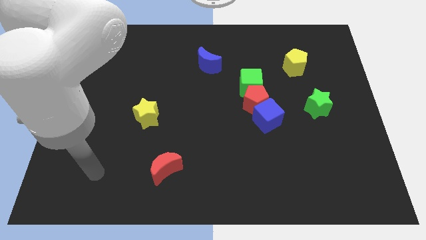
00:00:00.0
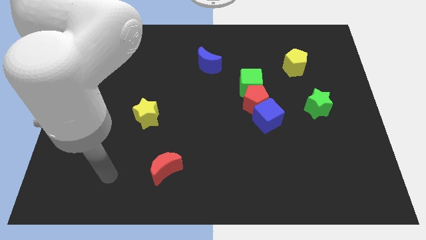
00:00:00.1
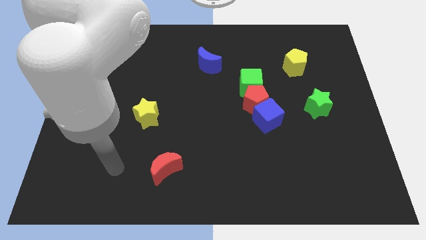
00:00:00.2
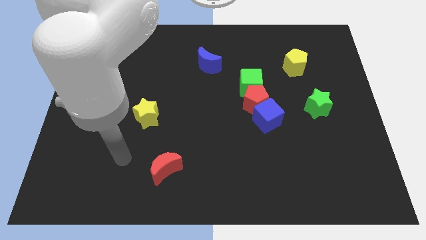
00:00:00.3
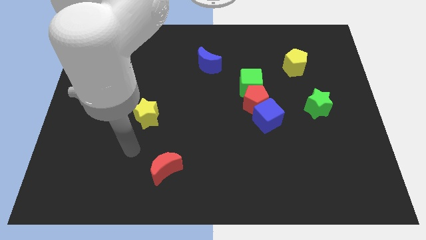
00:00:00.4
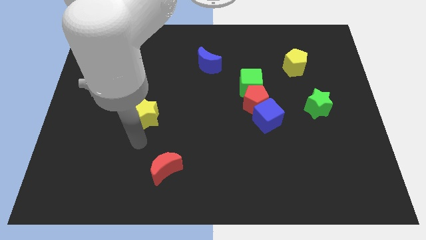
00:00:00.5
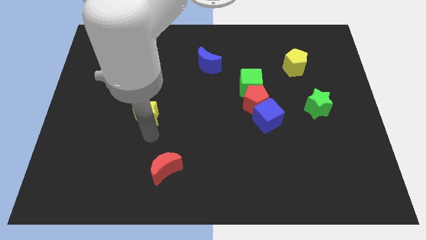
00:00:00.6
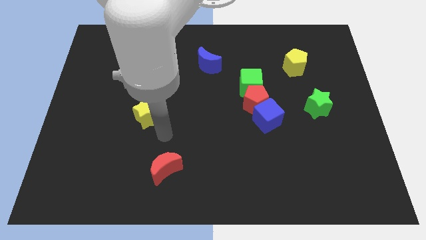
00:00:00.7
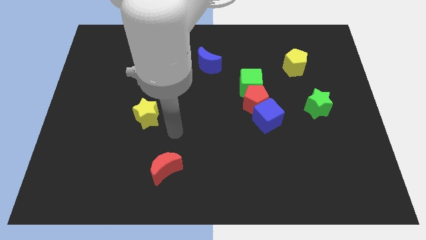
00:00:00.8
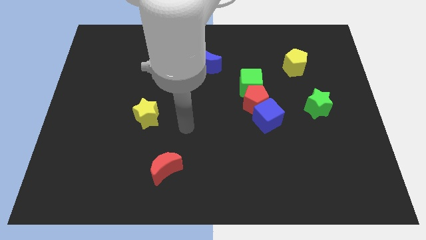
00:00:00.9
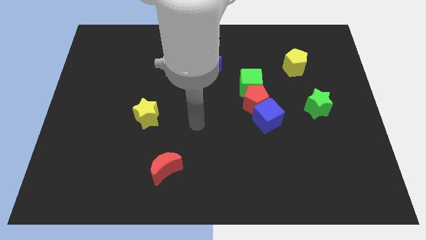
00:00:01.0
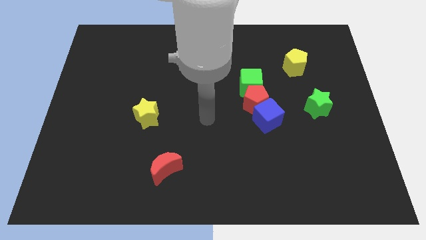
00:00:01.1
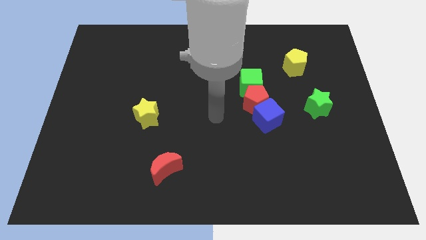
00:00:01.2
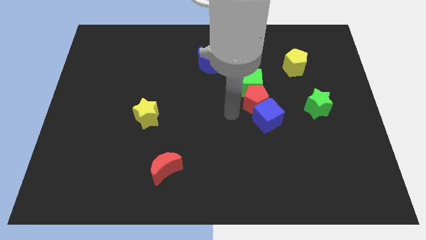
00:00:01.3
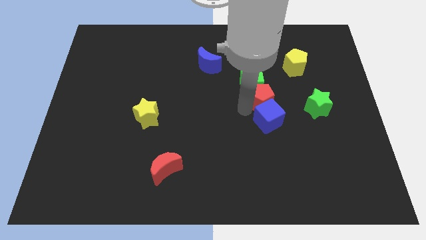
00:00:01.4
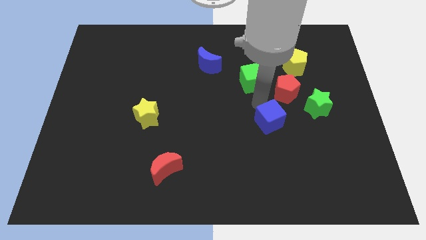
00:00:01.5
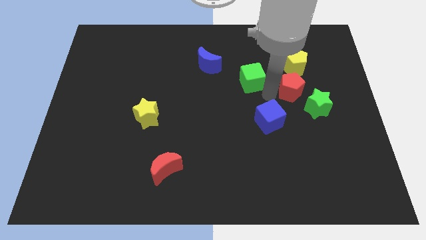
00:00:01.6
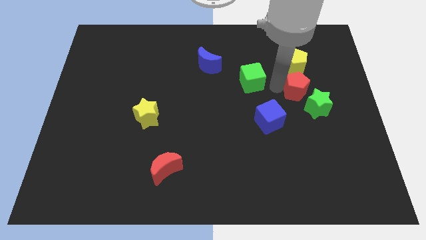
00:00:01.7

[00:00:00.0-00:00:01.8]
pull the green cube apart from the red pentagon

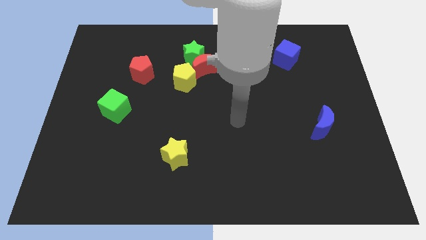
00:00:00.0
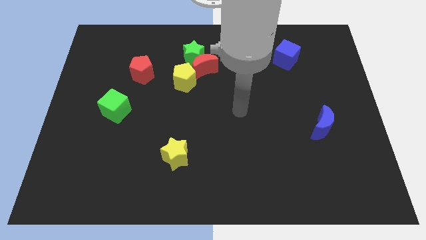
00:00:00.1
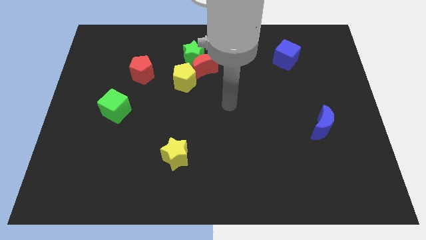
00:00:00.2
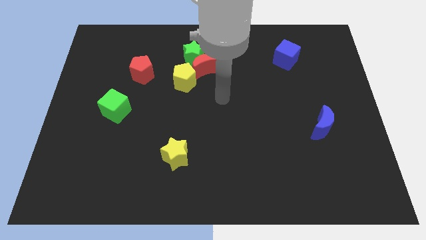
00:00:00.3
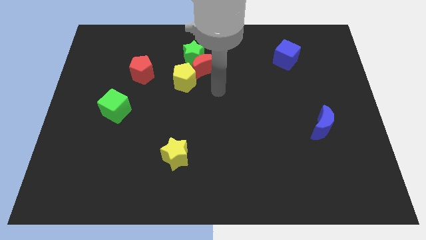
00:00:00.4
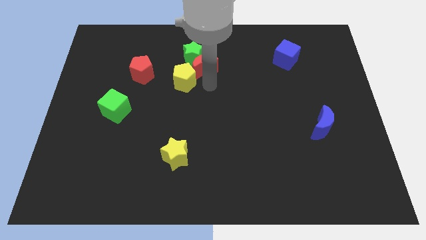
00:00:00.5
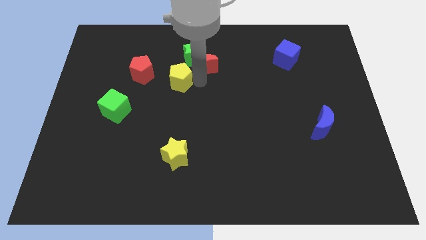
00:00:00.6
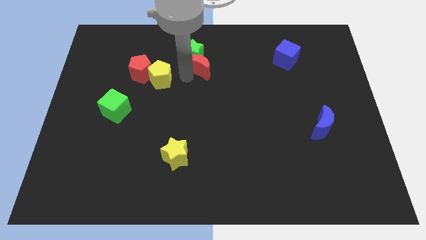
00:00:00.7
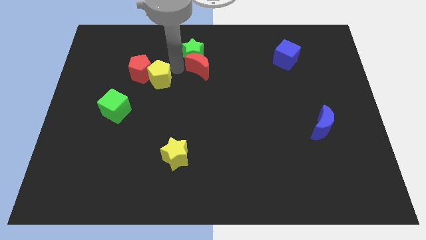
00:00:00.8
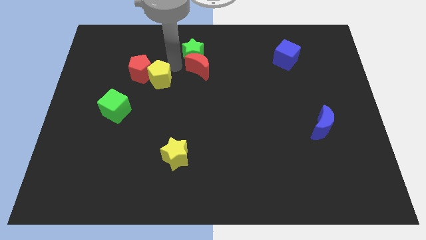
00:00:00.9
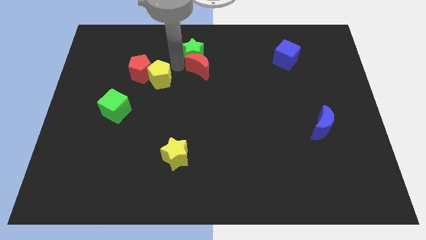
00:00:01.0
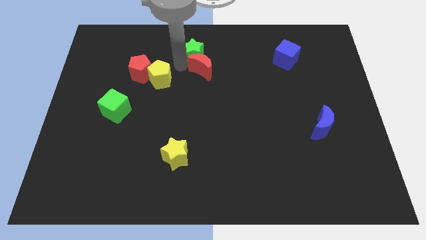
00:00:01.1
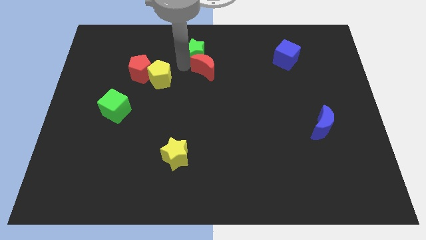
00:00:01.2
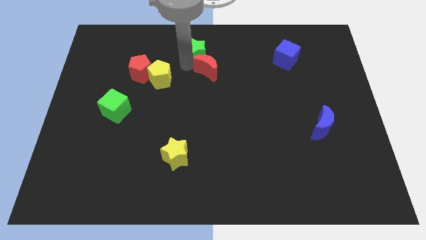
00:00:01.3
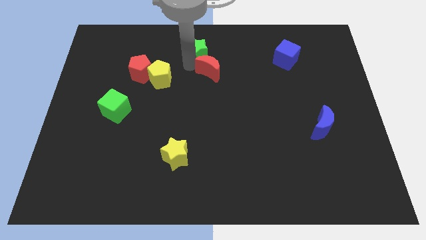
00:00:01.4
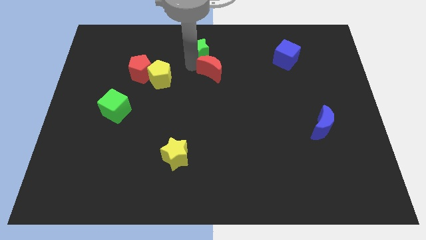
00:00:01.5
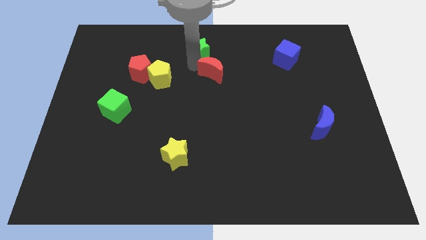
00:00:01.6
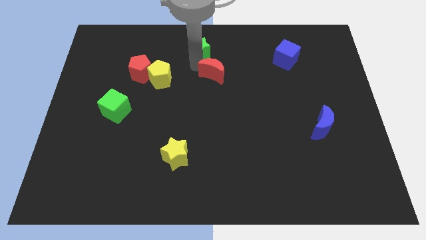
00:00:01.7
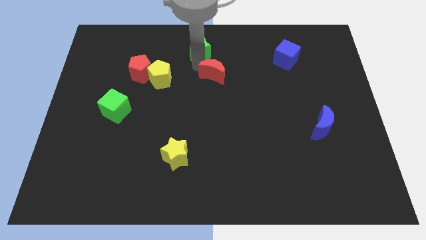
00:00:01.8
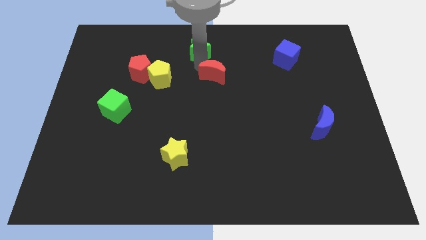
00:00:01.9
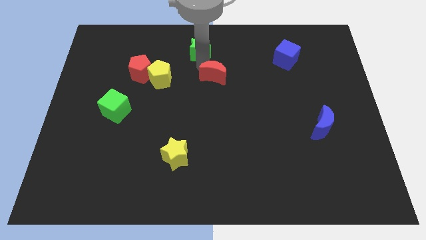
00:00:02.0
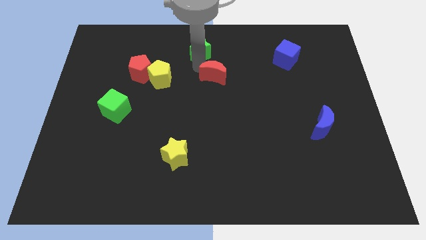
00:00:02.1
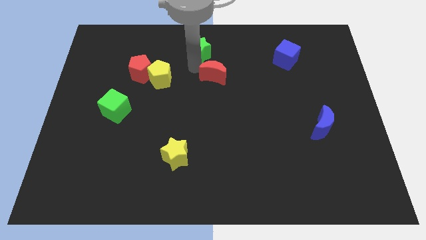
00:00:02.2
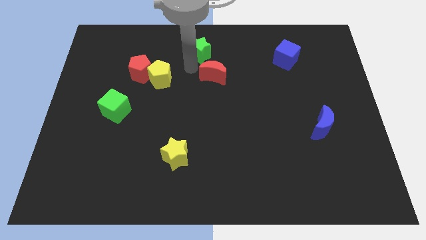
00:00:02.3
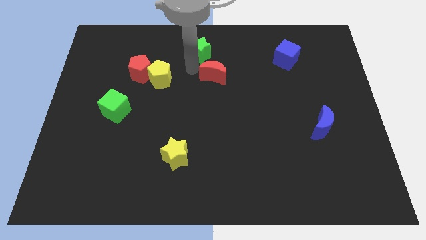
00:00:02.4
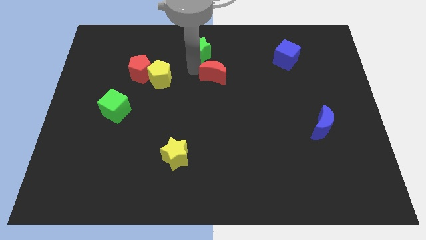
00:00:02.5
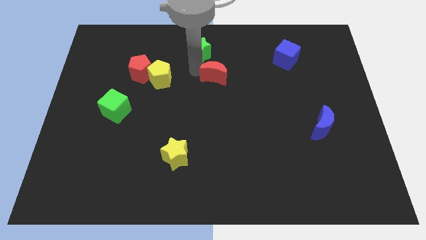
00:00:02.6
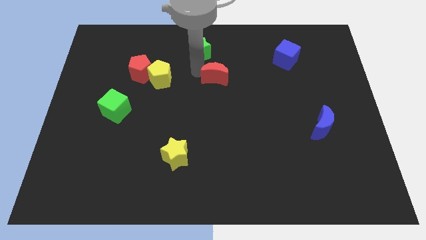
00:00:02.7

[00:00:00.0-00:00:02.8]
move the red moon away from the green star and yellow pentagon

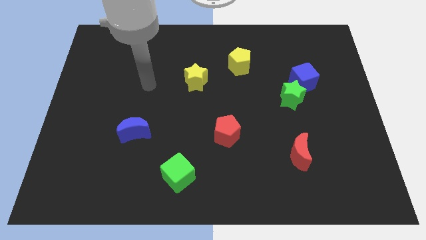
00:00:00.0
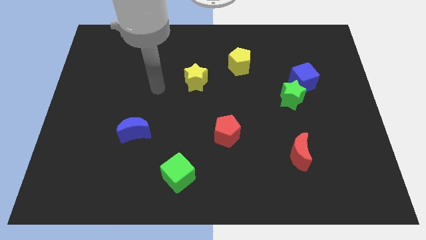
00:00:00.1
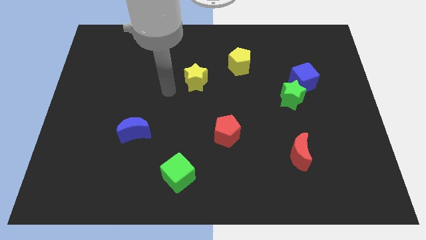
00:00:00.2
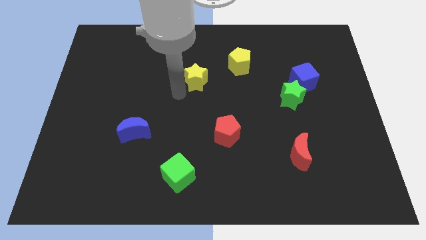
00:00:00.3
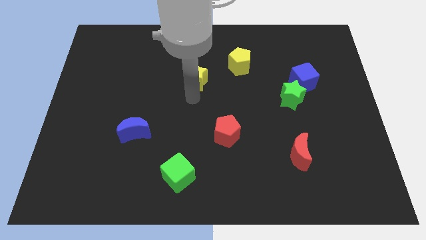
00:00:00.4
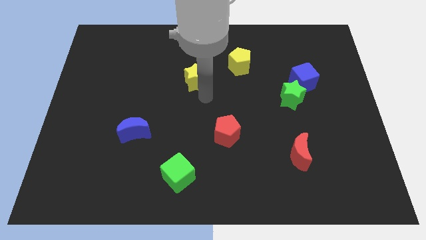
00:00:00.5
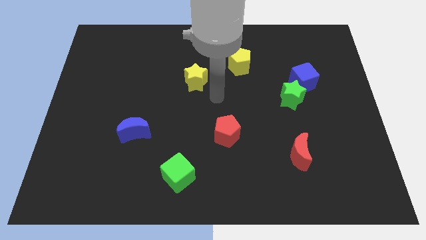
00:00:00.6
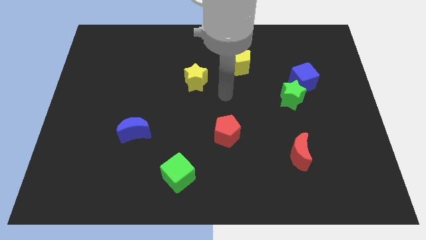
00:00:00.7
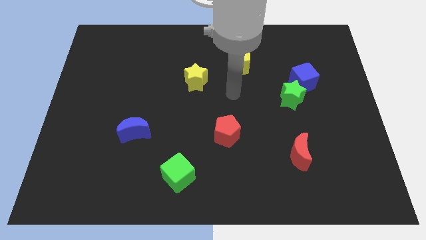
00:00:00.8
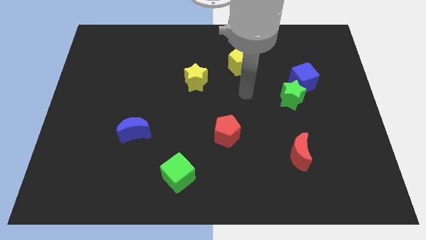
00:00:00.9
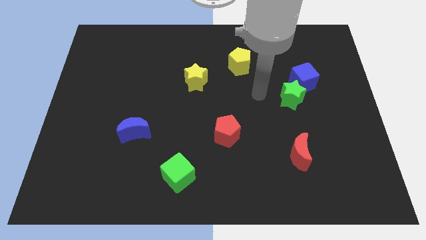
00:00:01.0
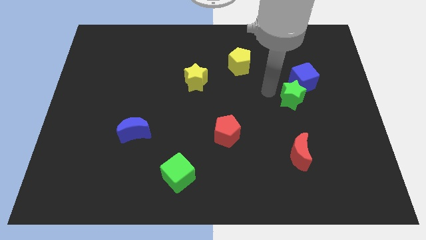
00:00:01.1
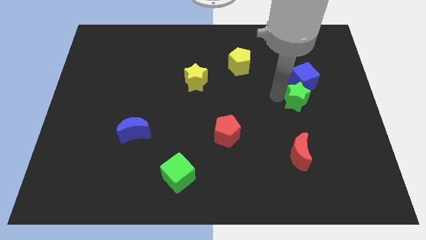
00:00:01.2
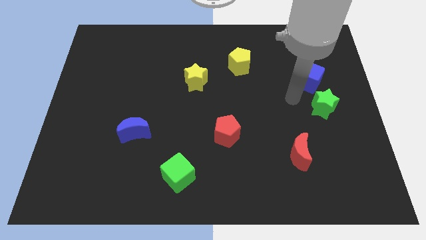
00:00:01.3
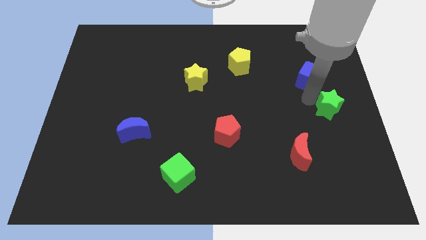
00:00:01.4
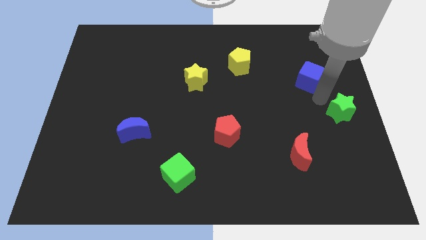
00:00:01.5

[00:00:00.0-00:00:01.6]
pull the blue cube apart from the green star

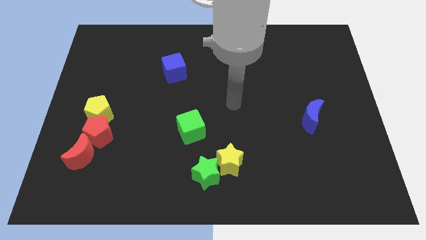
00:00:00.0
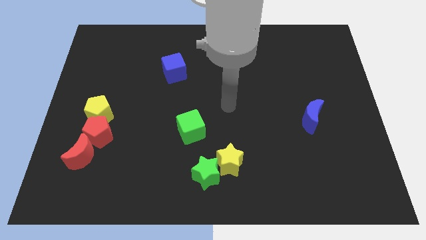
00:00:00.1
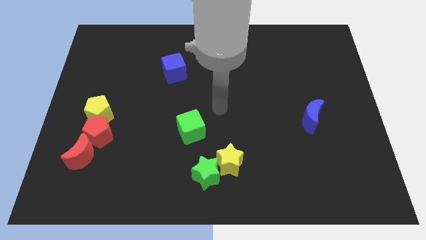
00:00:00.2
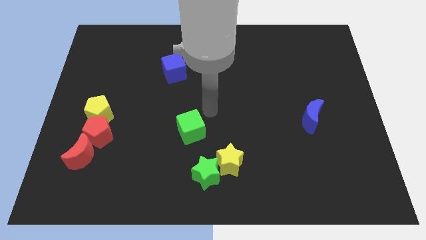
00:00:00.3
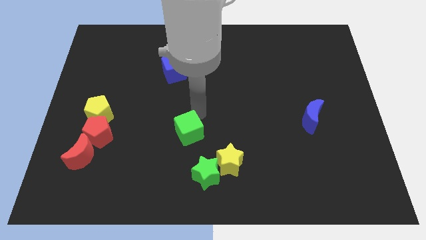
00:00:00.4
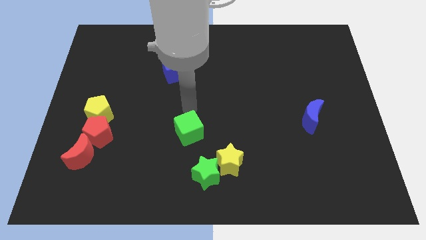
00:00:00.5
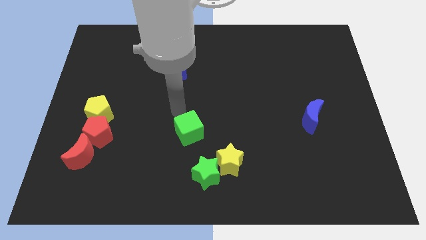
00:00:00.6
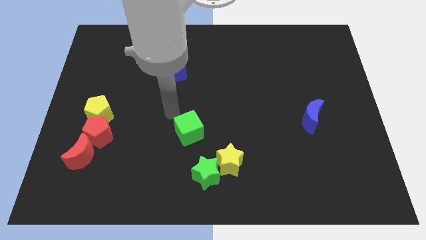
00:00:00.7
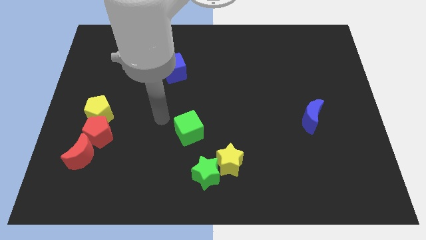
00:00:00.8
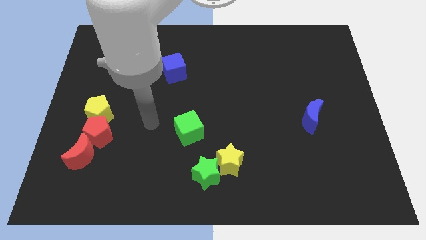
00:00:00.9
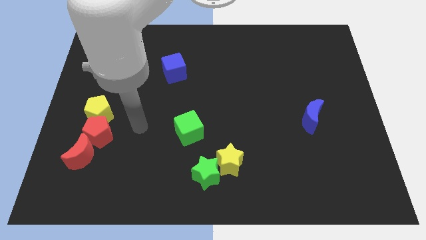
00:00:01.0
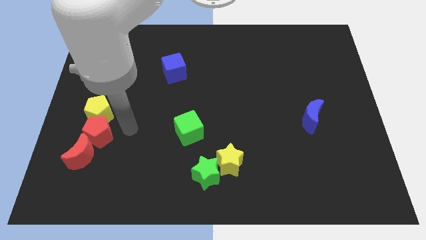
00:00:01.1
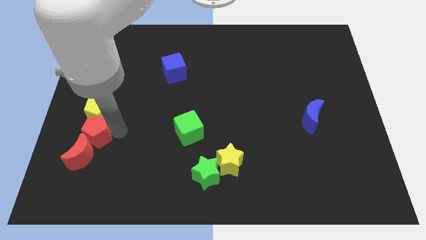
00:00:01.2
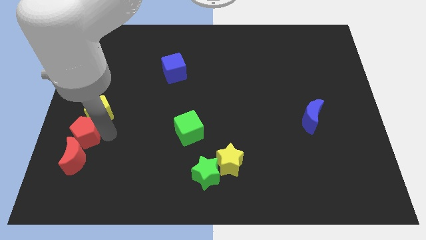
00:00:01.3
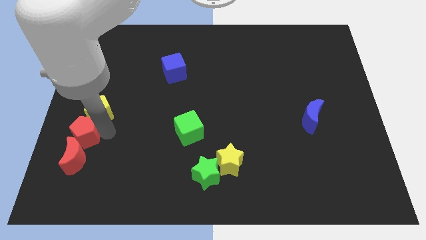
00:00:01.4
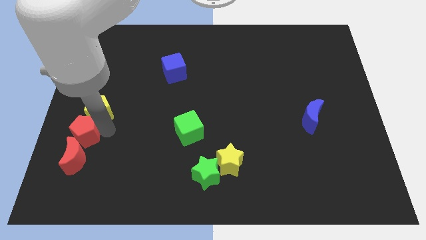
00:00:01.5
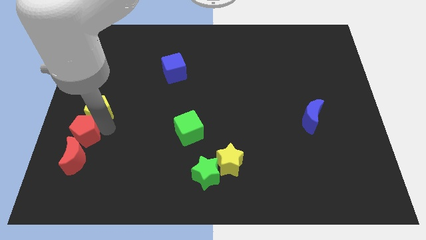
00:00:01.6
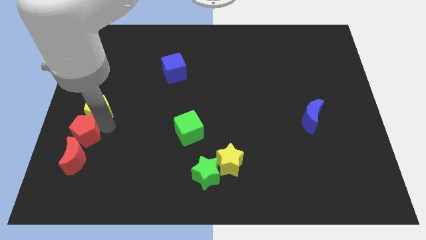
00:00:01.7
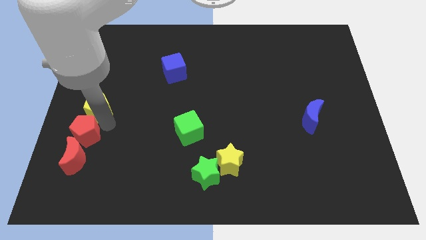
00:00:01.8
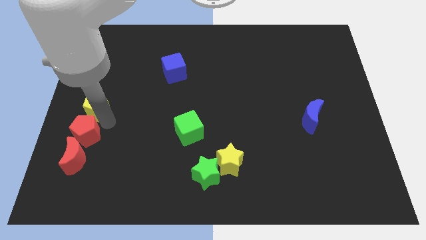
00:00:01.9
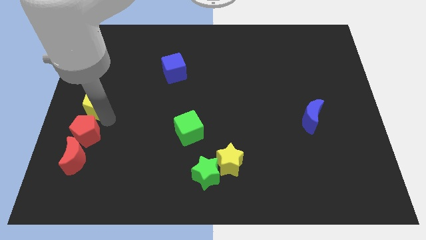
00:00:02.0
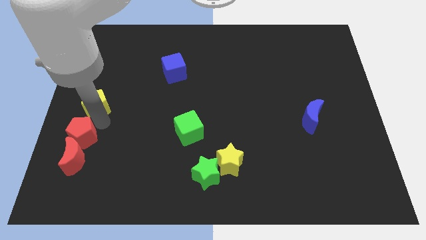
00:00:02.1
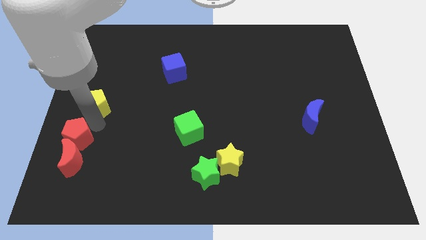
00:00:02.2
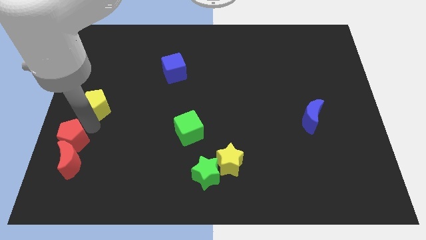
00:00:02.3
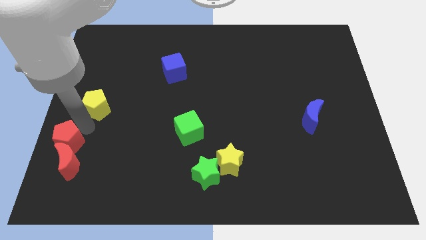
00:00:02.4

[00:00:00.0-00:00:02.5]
move the yellow pentagon away from the red pentagon

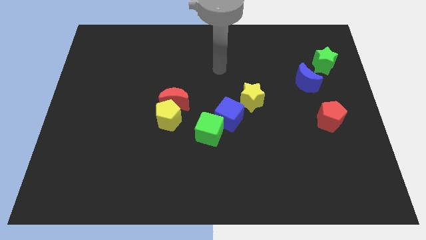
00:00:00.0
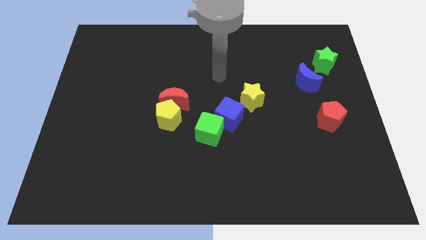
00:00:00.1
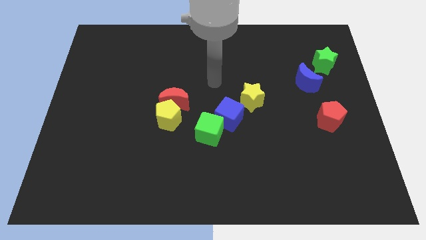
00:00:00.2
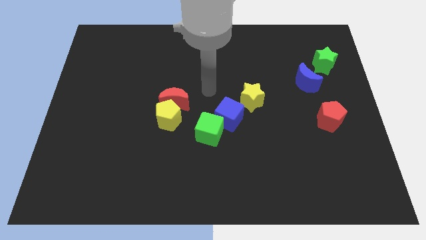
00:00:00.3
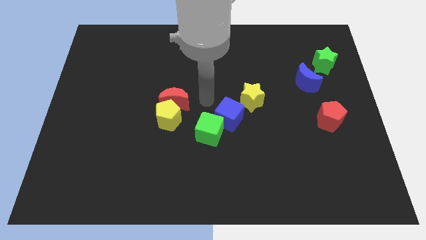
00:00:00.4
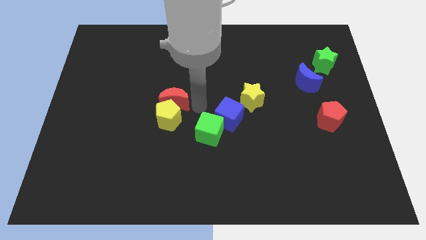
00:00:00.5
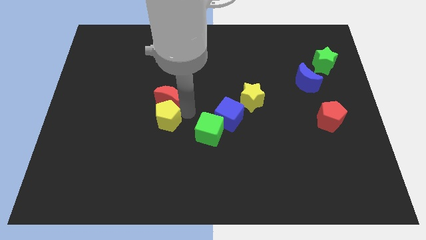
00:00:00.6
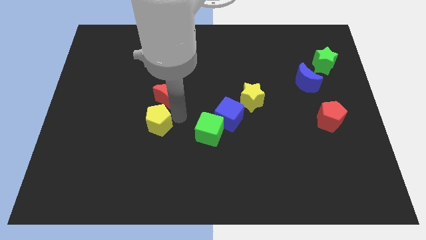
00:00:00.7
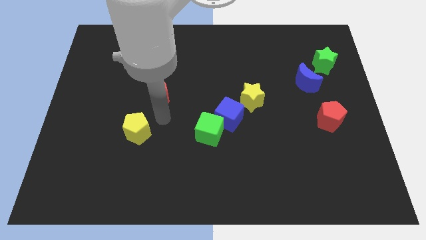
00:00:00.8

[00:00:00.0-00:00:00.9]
move the red moon away from the yellow pentagon
